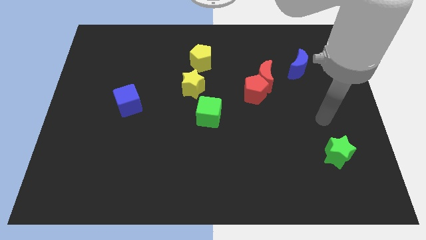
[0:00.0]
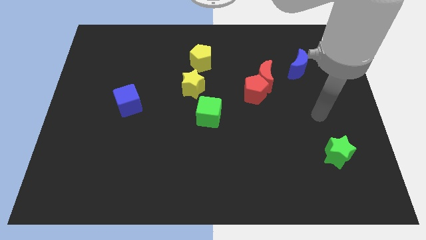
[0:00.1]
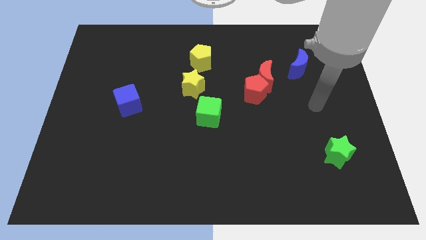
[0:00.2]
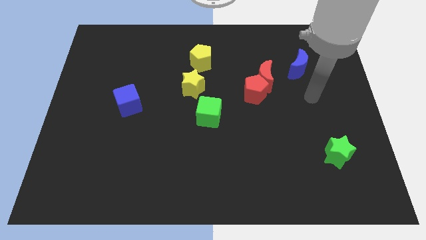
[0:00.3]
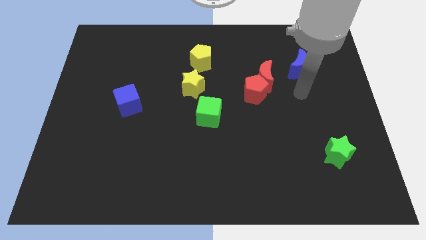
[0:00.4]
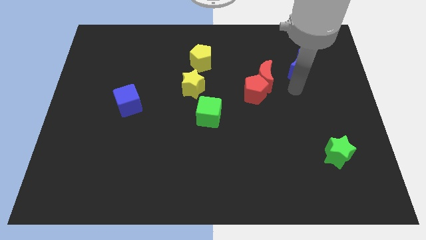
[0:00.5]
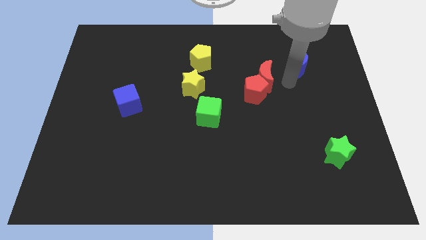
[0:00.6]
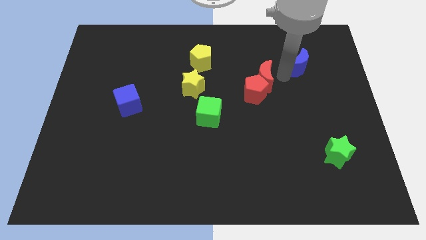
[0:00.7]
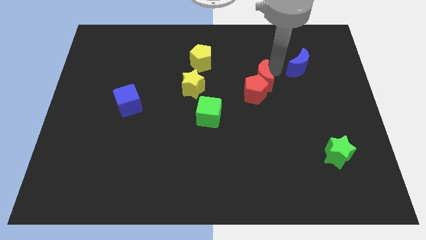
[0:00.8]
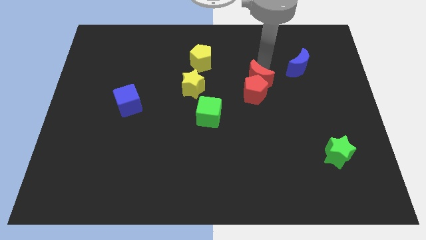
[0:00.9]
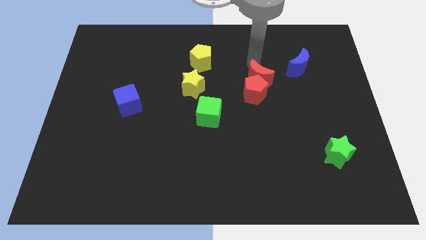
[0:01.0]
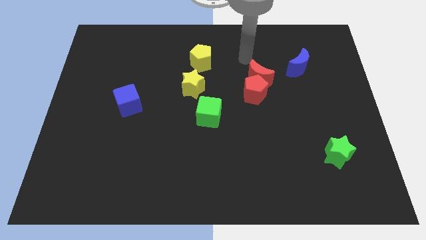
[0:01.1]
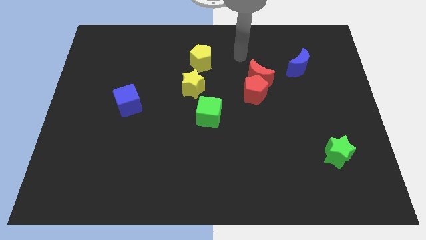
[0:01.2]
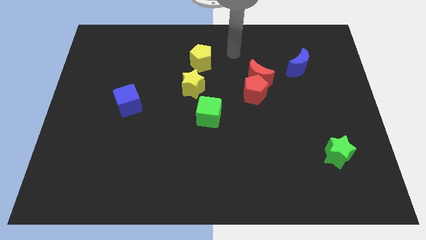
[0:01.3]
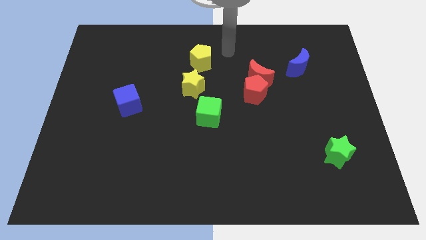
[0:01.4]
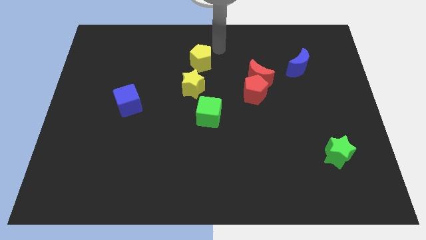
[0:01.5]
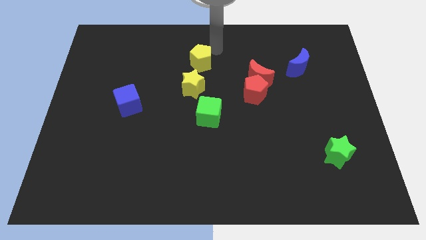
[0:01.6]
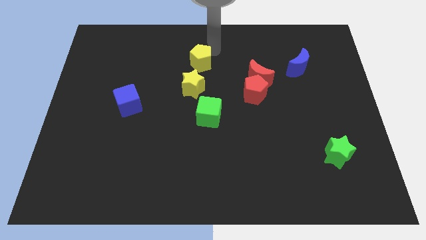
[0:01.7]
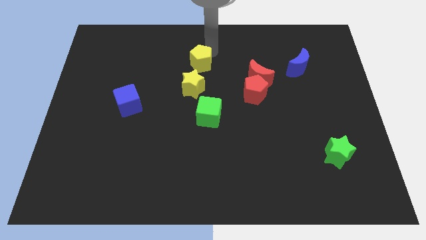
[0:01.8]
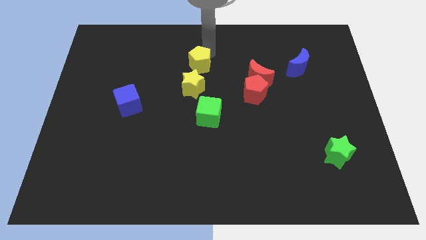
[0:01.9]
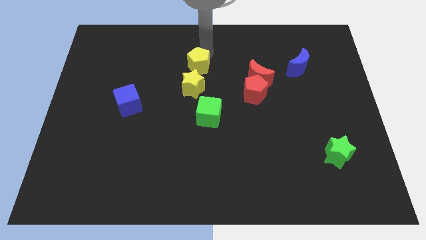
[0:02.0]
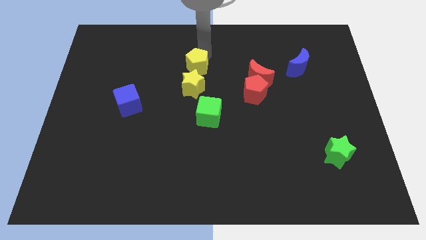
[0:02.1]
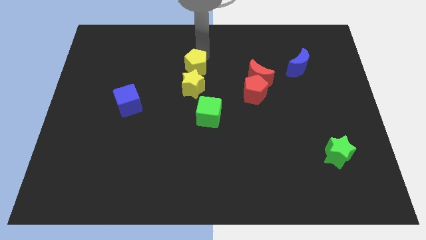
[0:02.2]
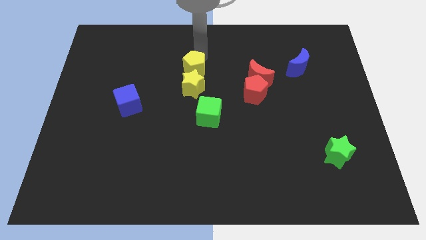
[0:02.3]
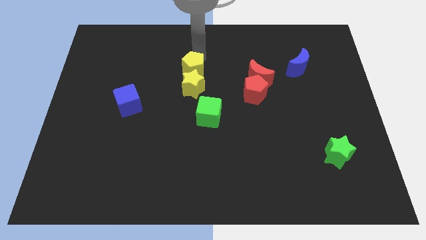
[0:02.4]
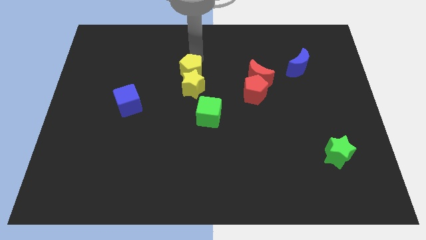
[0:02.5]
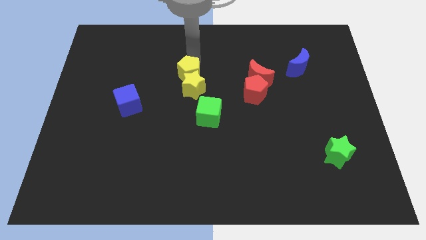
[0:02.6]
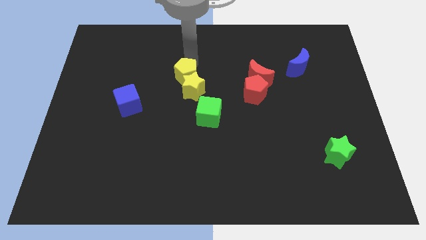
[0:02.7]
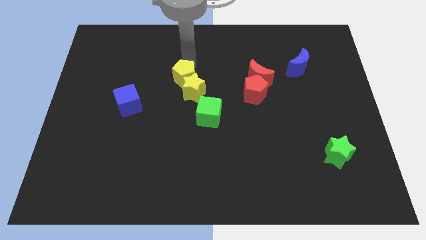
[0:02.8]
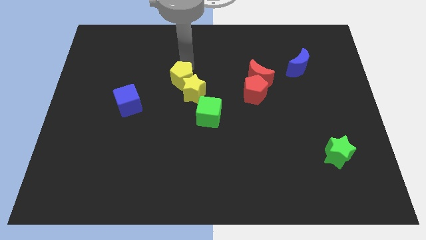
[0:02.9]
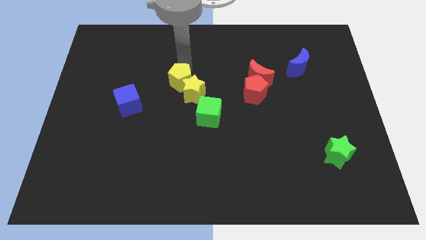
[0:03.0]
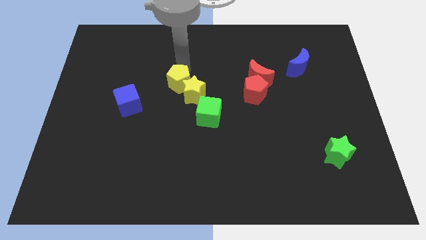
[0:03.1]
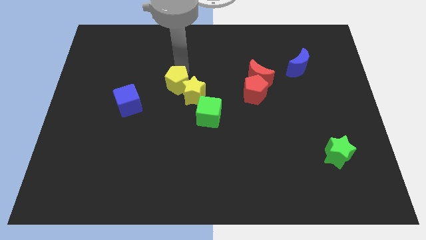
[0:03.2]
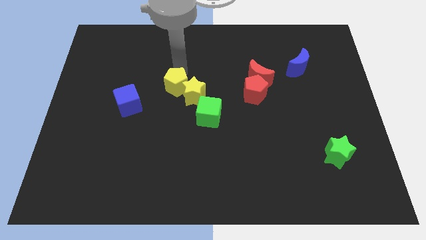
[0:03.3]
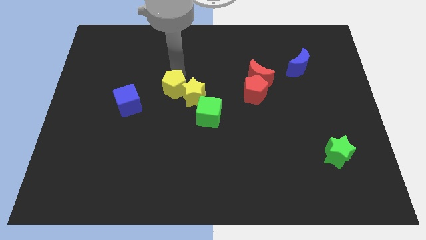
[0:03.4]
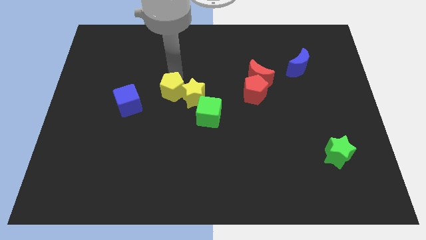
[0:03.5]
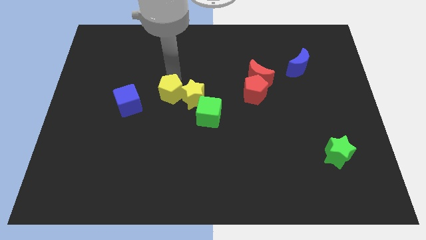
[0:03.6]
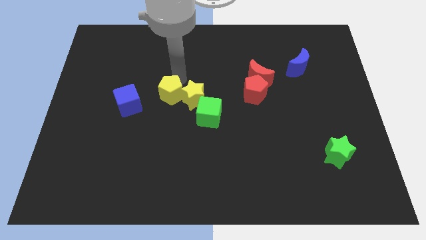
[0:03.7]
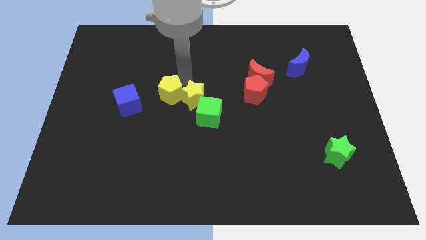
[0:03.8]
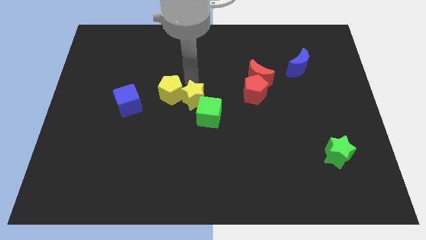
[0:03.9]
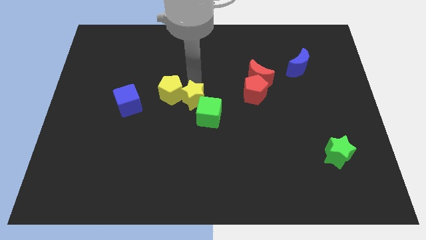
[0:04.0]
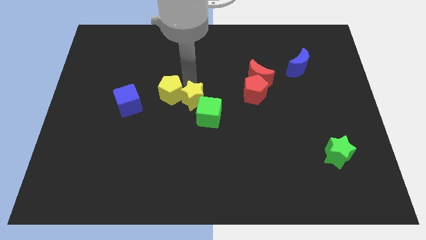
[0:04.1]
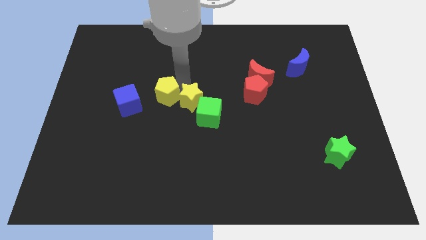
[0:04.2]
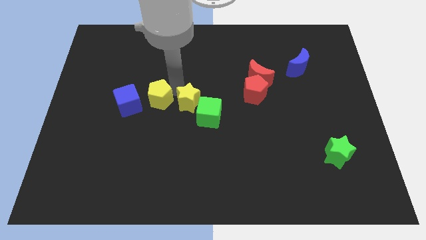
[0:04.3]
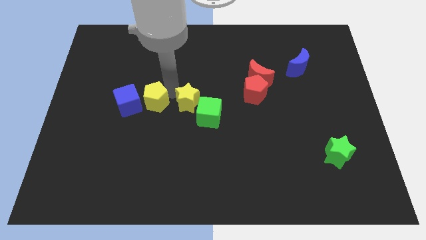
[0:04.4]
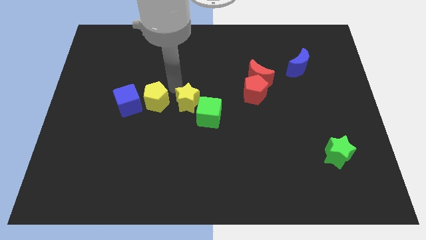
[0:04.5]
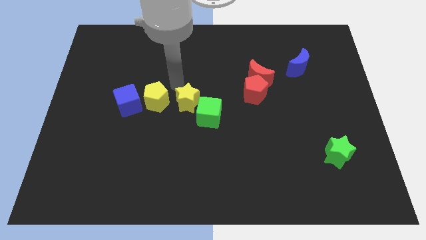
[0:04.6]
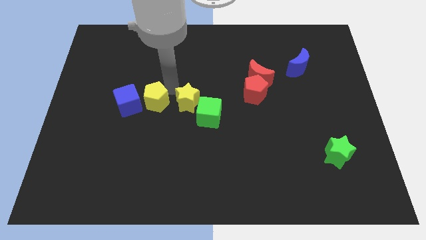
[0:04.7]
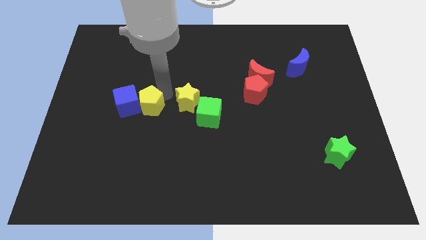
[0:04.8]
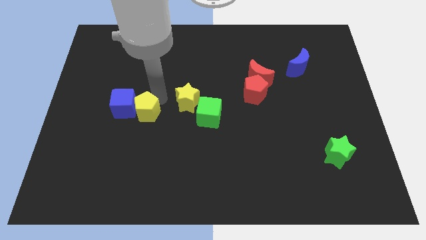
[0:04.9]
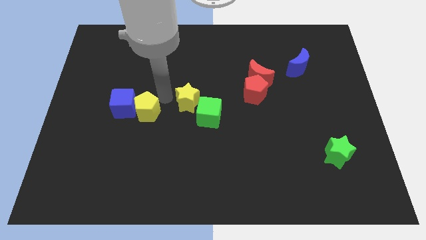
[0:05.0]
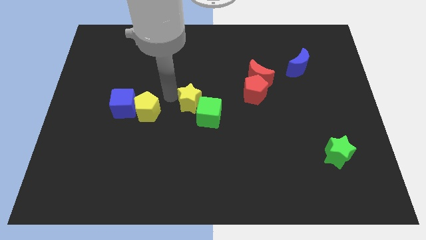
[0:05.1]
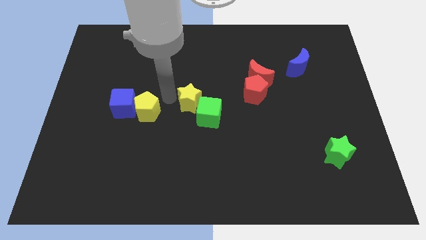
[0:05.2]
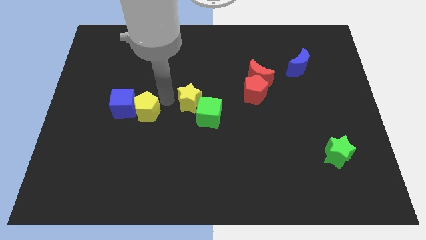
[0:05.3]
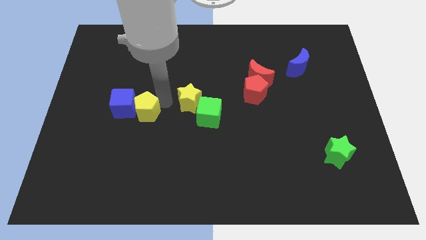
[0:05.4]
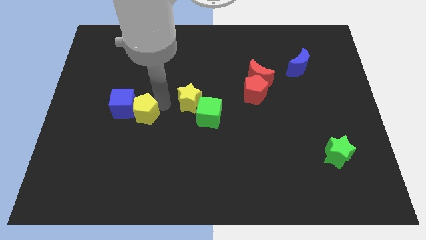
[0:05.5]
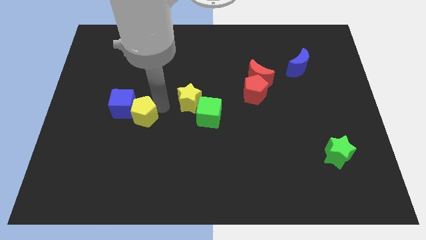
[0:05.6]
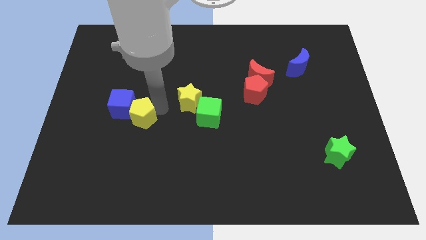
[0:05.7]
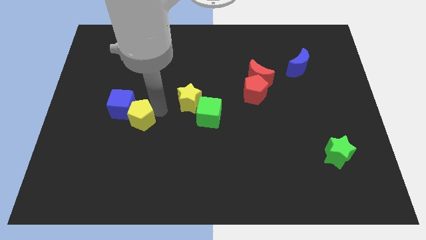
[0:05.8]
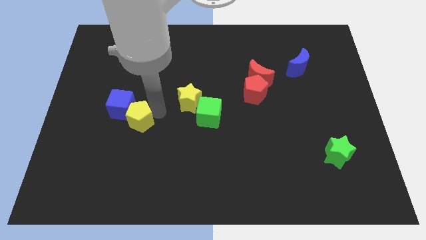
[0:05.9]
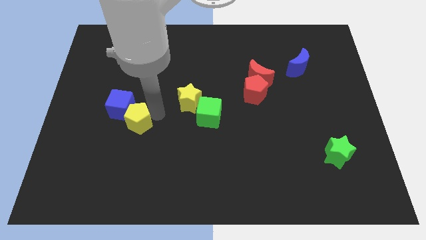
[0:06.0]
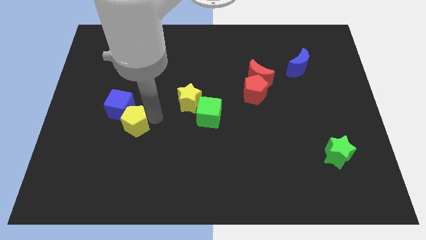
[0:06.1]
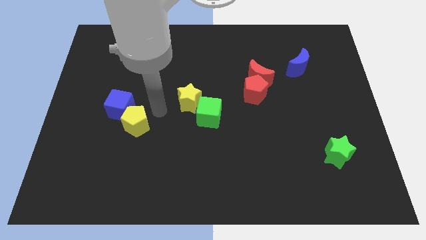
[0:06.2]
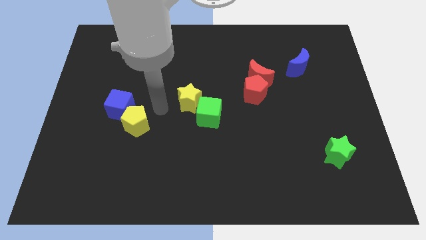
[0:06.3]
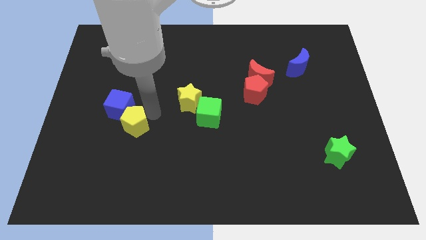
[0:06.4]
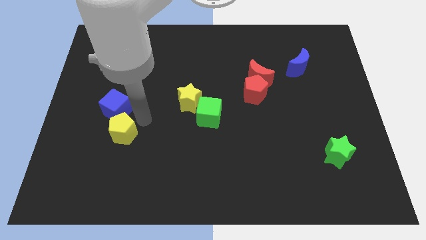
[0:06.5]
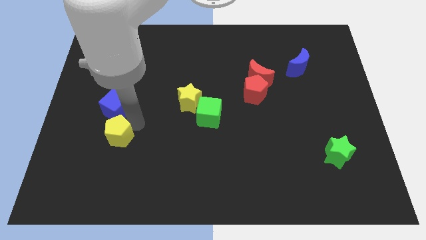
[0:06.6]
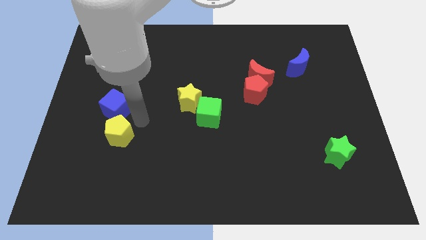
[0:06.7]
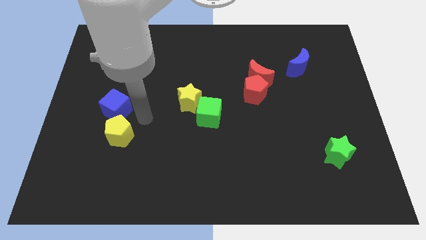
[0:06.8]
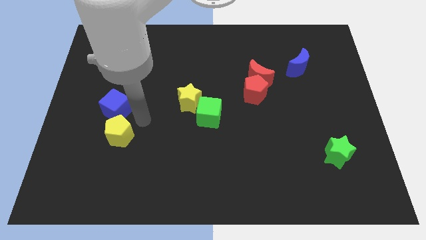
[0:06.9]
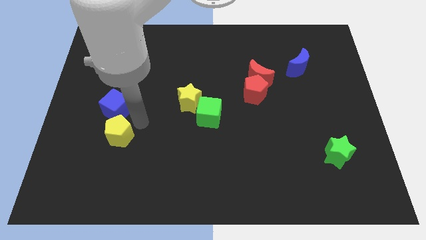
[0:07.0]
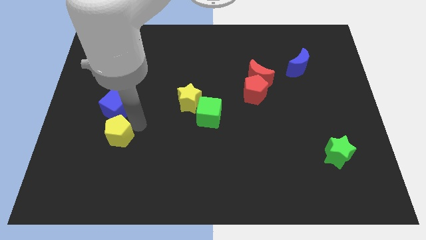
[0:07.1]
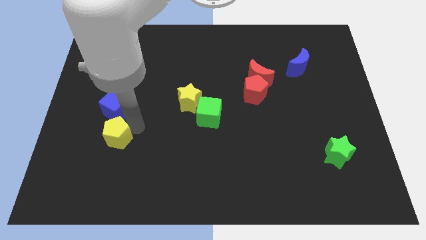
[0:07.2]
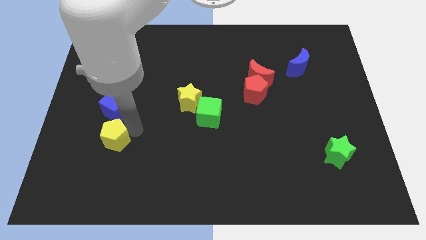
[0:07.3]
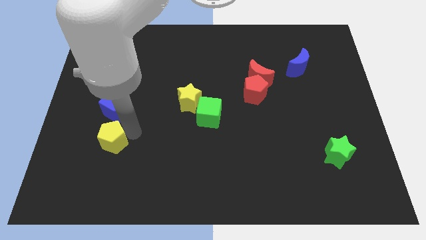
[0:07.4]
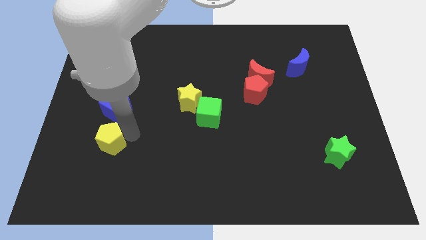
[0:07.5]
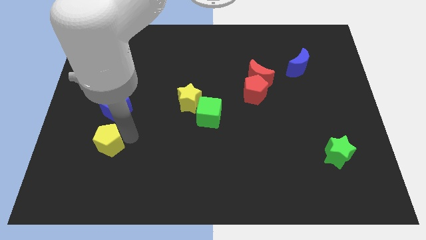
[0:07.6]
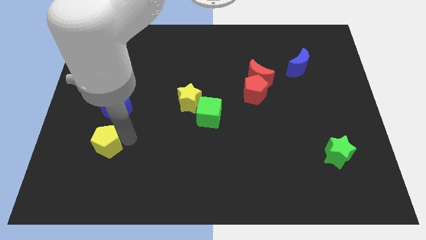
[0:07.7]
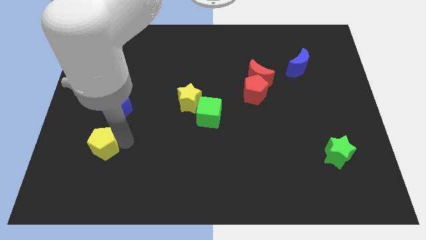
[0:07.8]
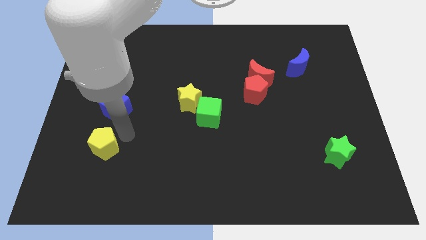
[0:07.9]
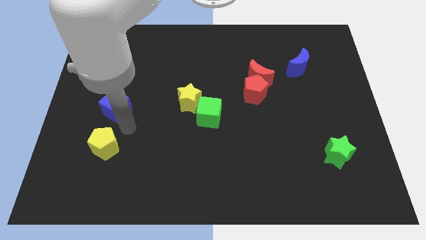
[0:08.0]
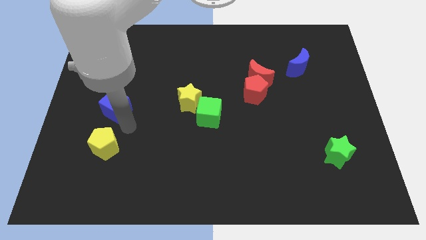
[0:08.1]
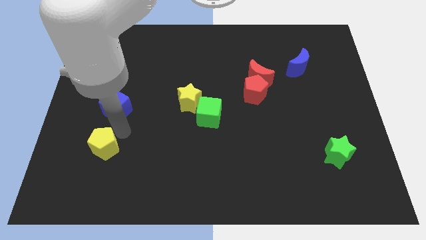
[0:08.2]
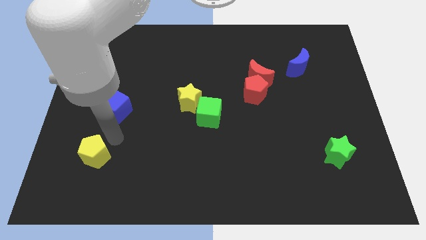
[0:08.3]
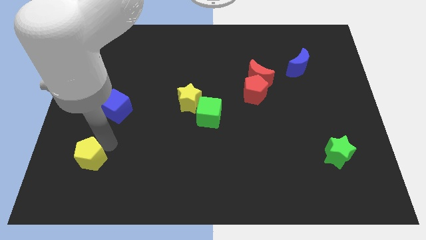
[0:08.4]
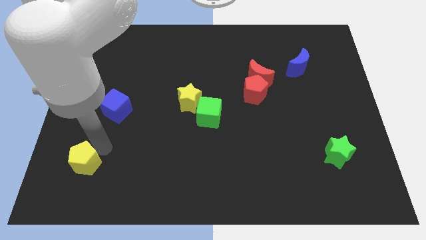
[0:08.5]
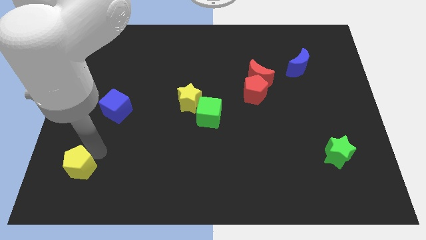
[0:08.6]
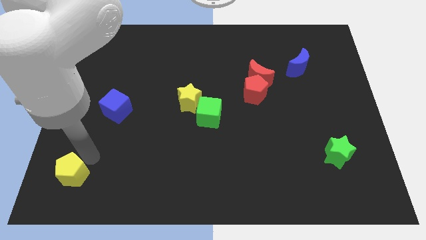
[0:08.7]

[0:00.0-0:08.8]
push the yellow pentagon to the lower left corner
